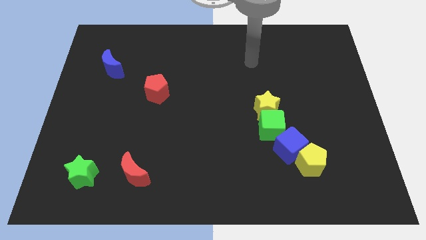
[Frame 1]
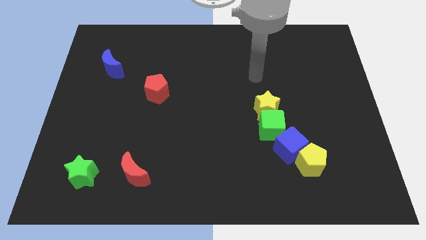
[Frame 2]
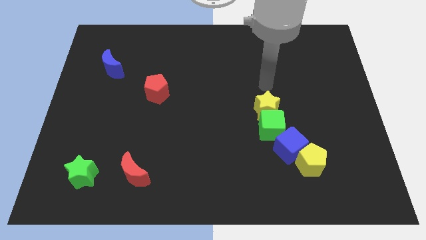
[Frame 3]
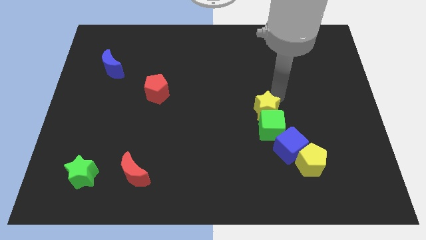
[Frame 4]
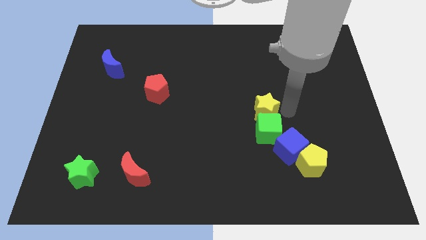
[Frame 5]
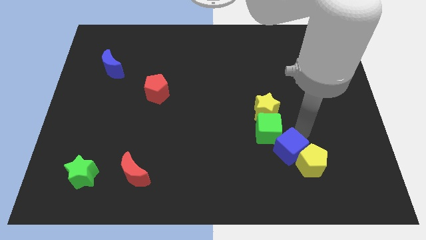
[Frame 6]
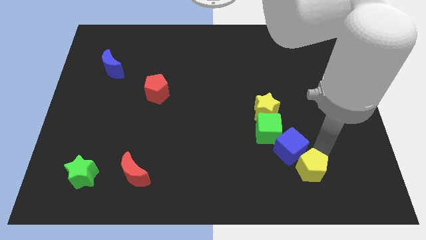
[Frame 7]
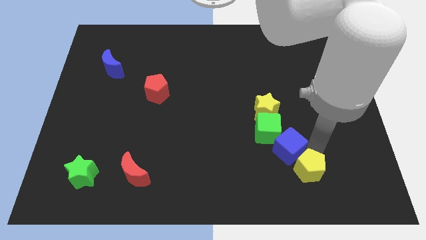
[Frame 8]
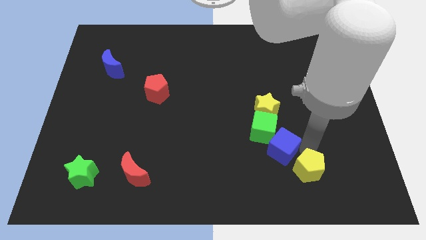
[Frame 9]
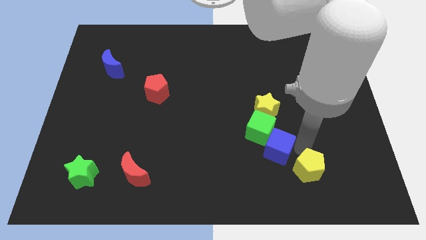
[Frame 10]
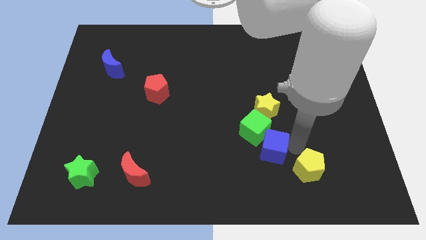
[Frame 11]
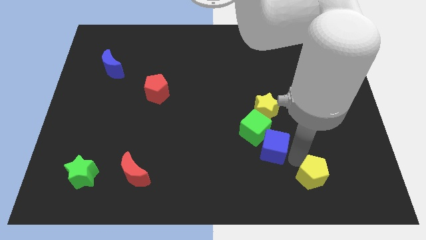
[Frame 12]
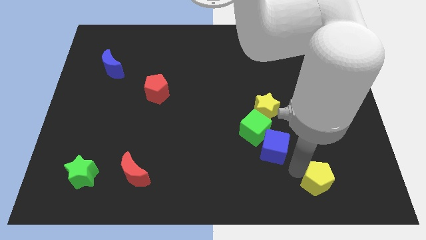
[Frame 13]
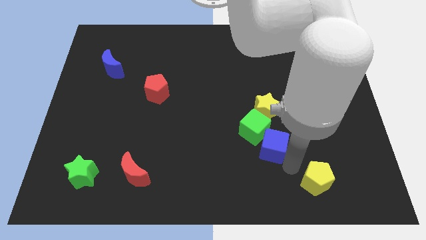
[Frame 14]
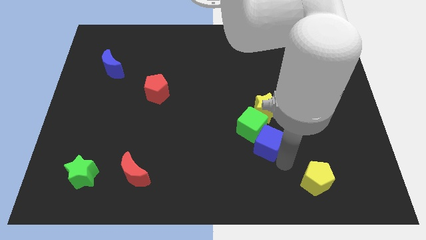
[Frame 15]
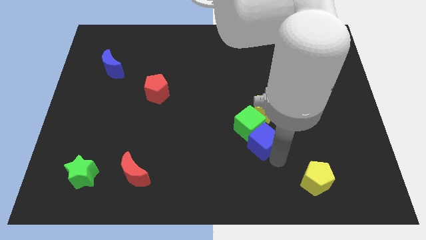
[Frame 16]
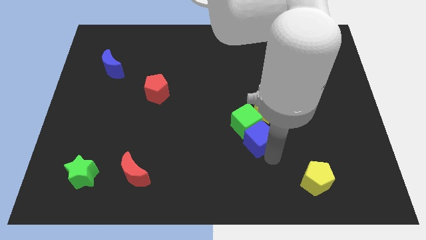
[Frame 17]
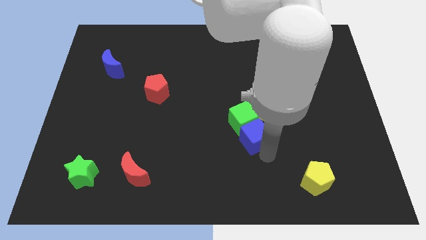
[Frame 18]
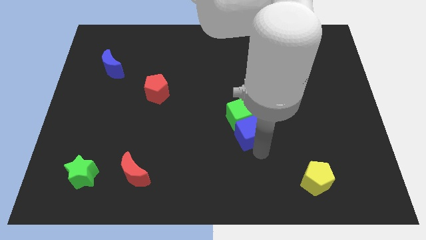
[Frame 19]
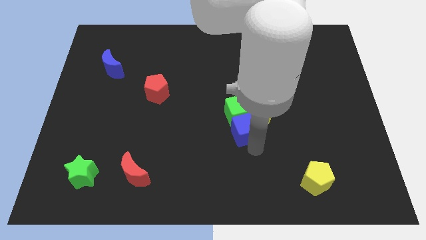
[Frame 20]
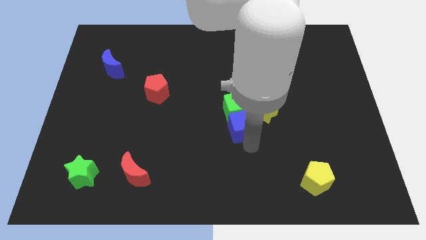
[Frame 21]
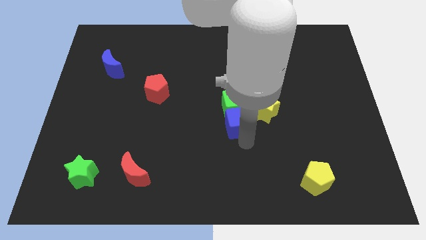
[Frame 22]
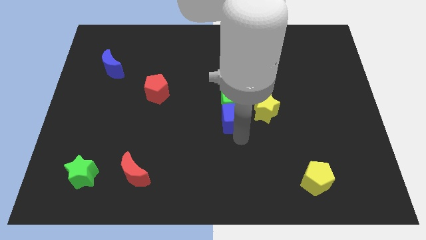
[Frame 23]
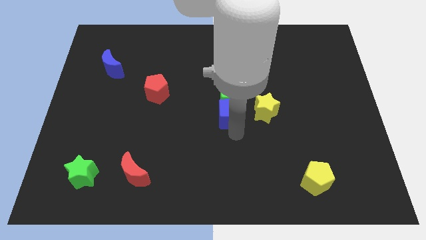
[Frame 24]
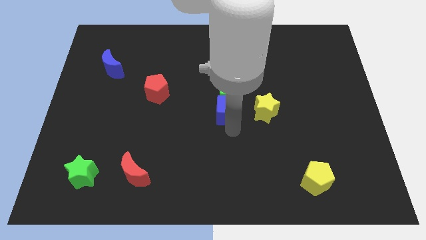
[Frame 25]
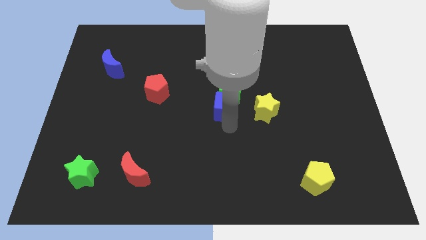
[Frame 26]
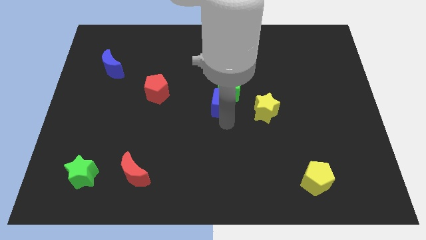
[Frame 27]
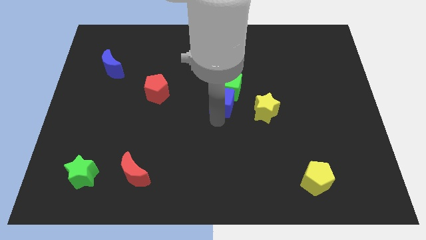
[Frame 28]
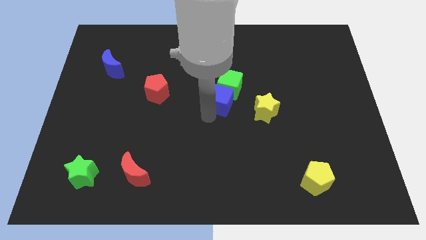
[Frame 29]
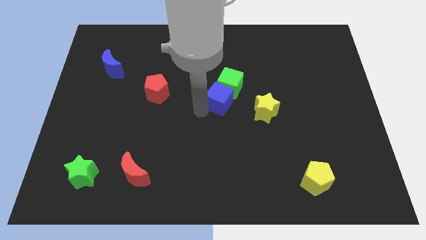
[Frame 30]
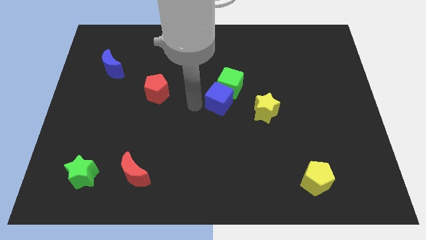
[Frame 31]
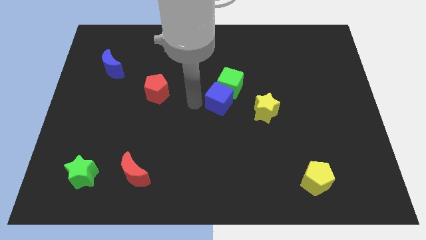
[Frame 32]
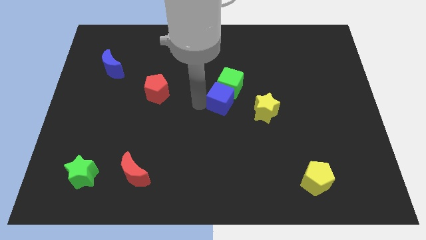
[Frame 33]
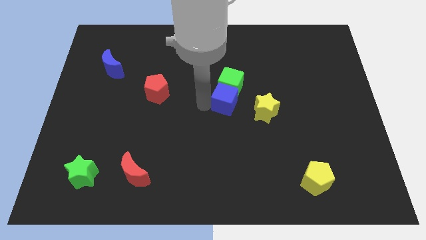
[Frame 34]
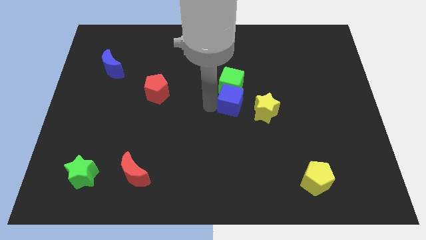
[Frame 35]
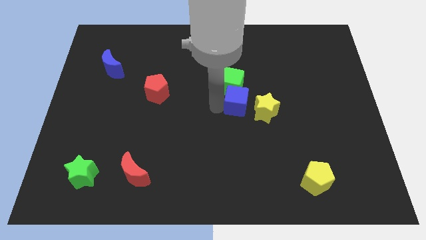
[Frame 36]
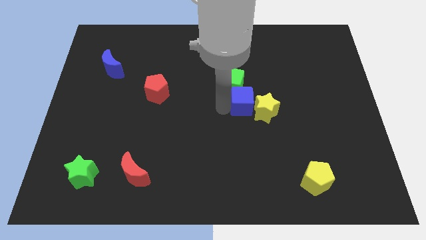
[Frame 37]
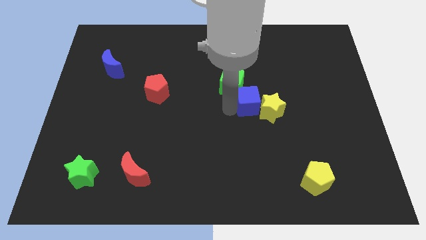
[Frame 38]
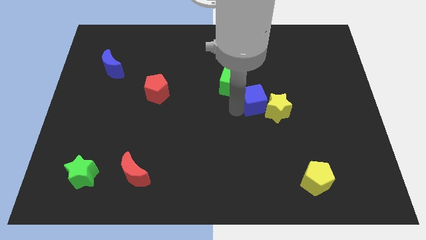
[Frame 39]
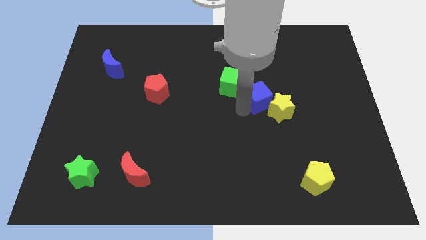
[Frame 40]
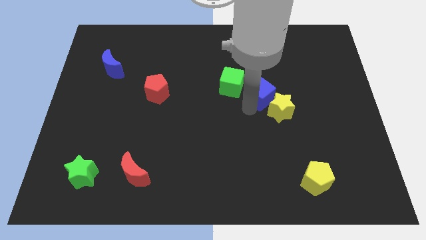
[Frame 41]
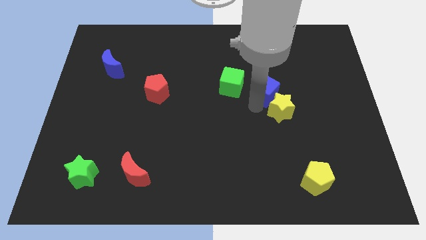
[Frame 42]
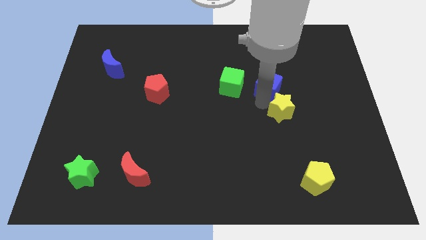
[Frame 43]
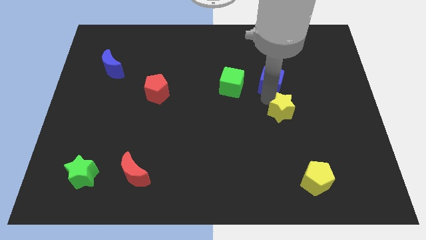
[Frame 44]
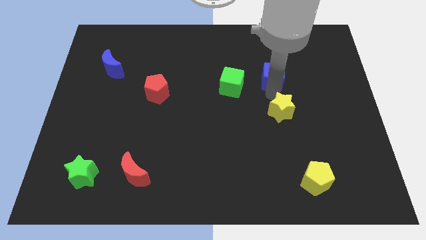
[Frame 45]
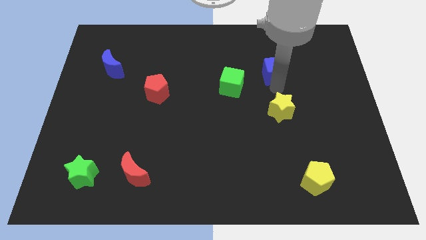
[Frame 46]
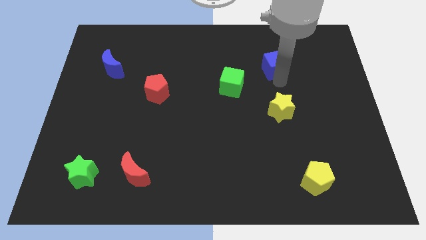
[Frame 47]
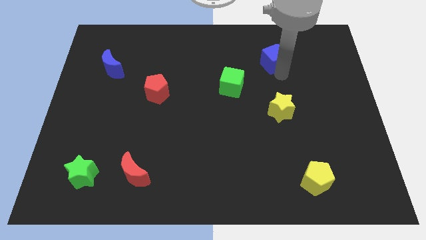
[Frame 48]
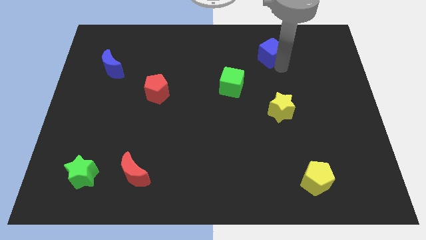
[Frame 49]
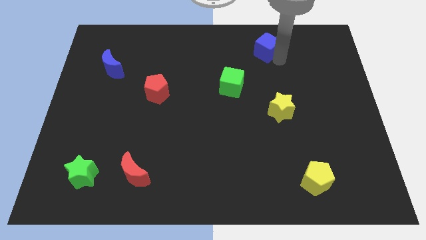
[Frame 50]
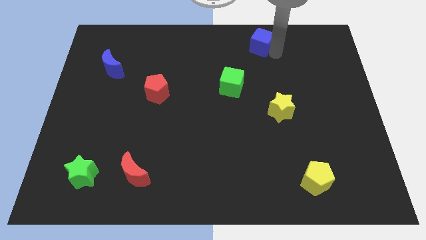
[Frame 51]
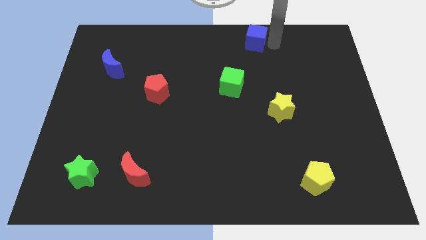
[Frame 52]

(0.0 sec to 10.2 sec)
slide the blue cube to the towards your base
